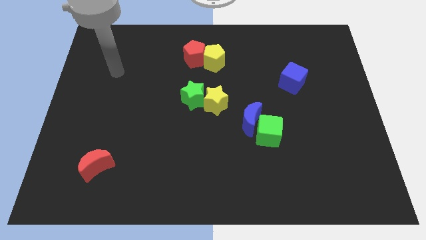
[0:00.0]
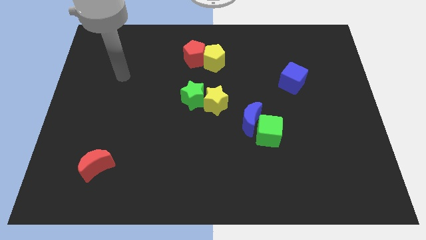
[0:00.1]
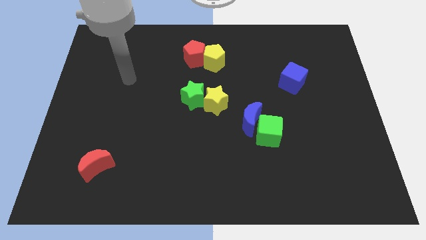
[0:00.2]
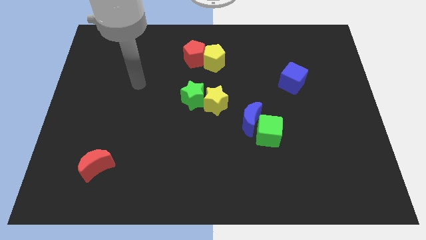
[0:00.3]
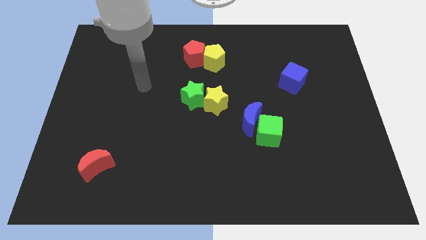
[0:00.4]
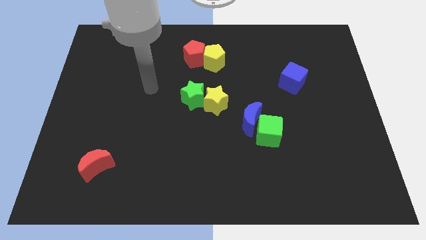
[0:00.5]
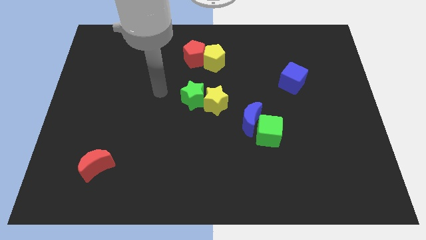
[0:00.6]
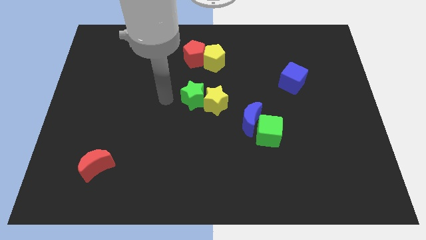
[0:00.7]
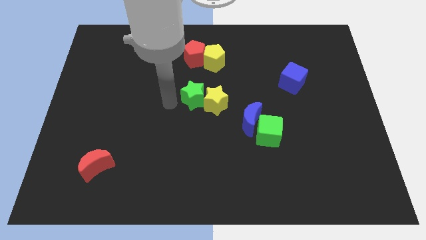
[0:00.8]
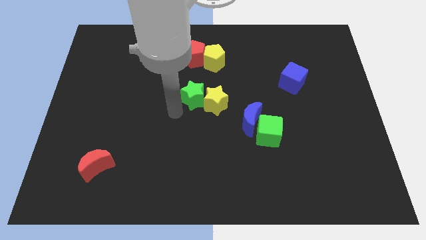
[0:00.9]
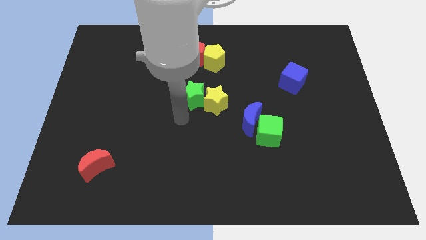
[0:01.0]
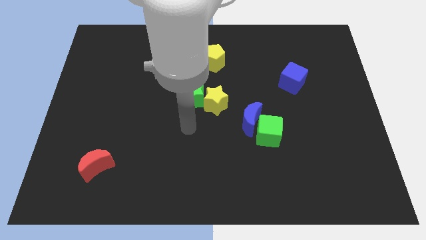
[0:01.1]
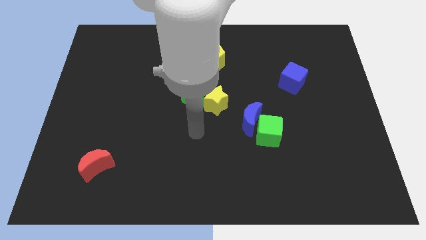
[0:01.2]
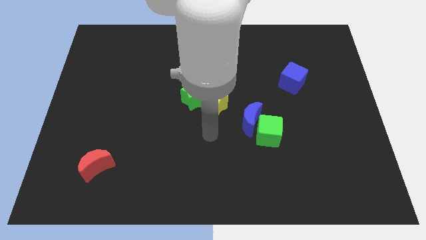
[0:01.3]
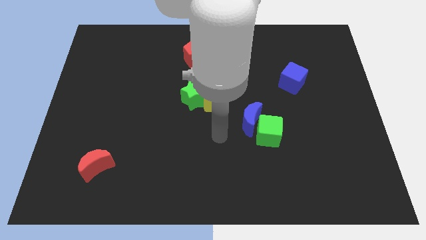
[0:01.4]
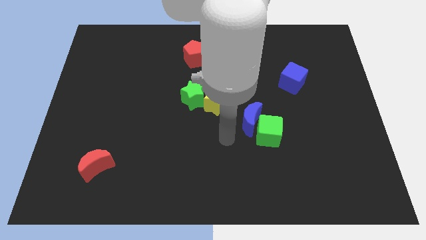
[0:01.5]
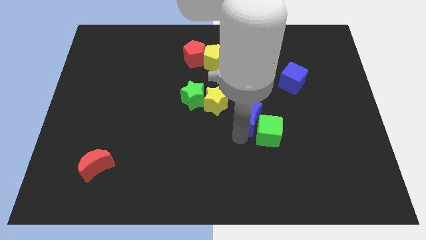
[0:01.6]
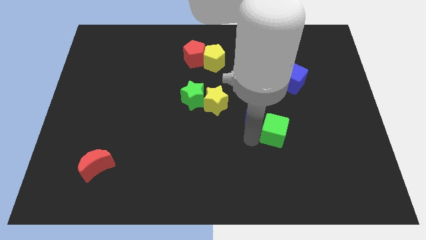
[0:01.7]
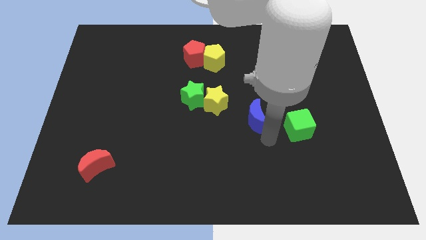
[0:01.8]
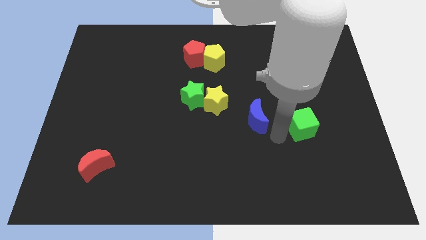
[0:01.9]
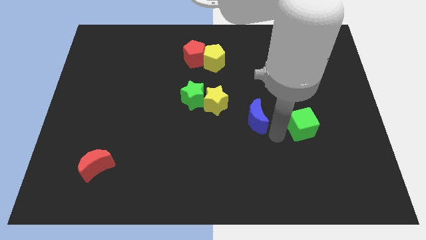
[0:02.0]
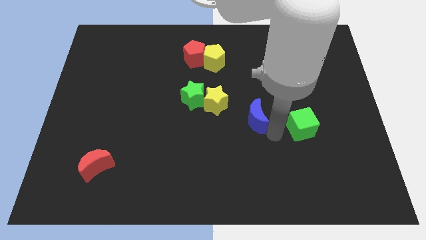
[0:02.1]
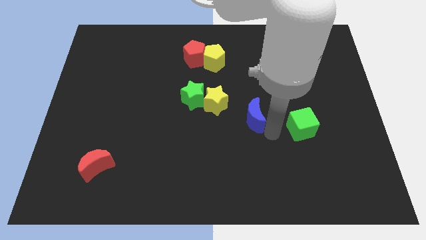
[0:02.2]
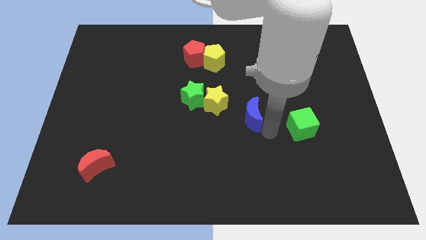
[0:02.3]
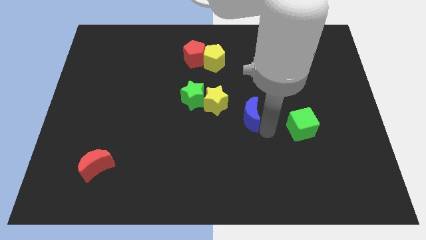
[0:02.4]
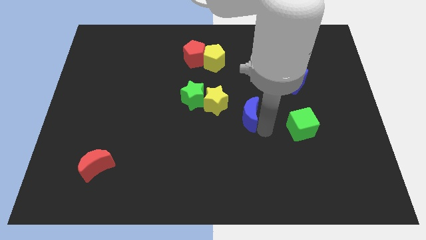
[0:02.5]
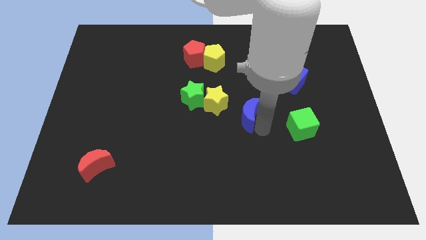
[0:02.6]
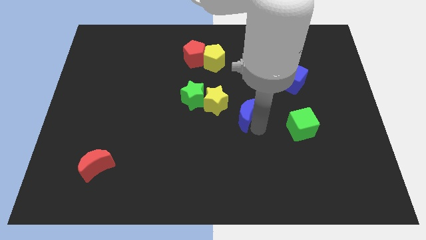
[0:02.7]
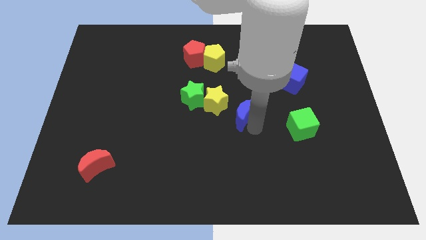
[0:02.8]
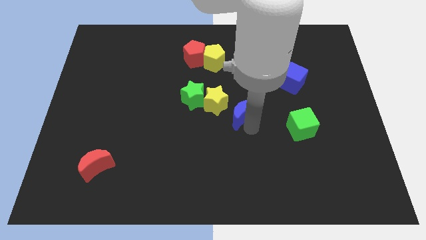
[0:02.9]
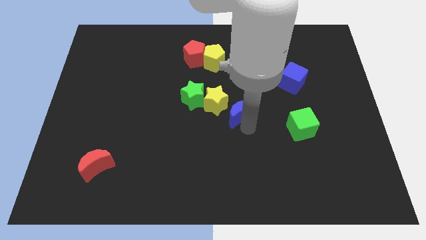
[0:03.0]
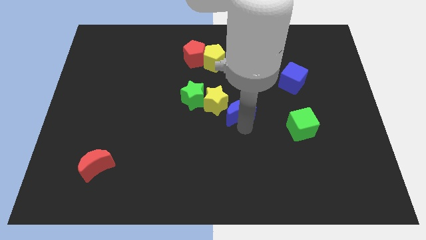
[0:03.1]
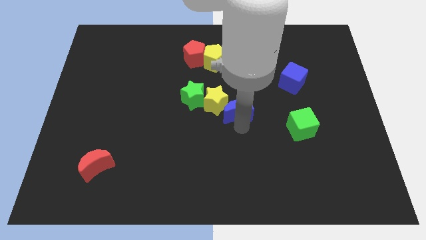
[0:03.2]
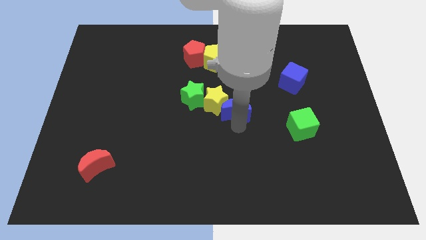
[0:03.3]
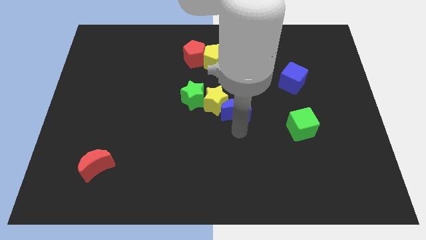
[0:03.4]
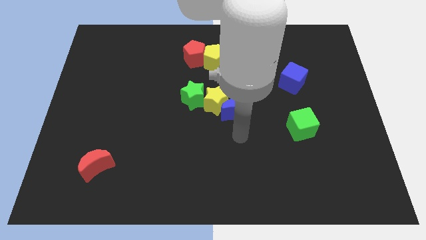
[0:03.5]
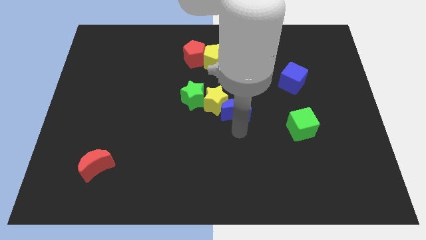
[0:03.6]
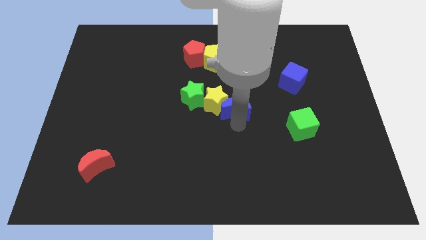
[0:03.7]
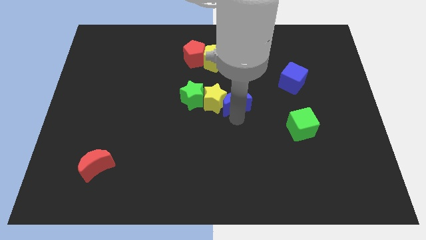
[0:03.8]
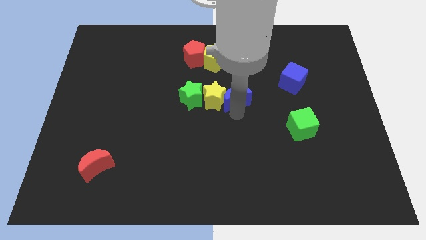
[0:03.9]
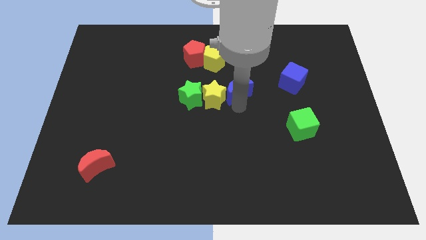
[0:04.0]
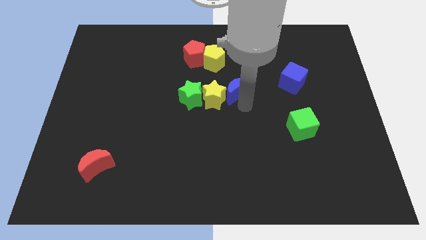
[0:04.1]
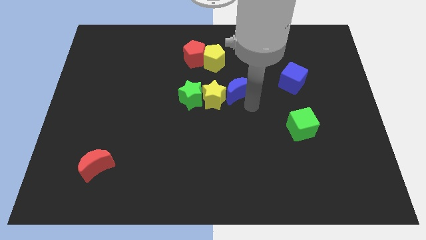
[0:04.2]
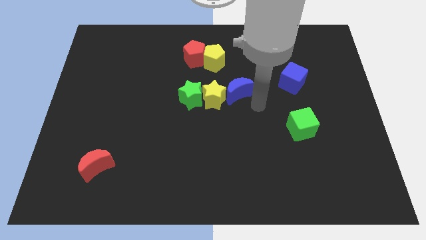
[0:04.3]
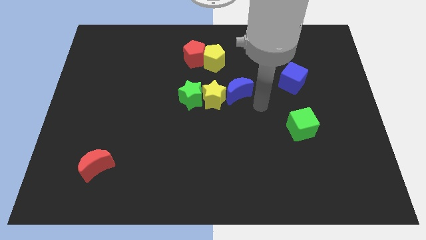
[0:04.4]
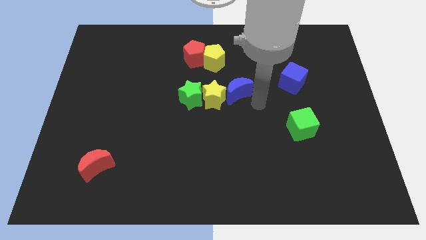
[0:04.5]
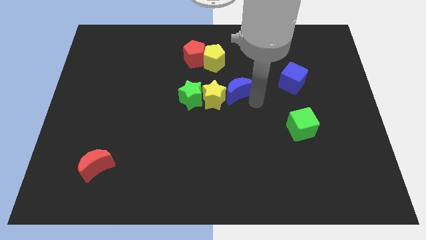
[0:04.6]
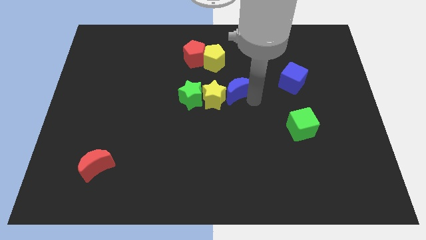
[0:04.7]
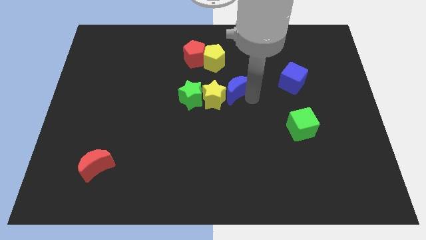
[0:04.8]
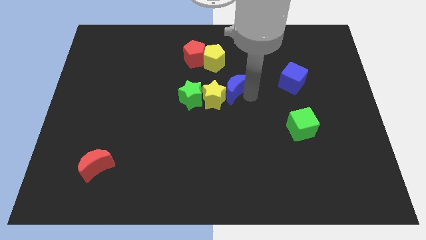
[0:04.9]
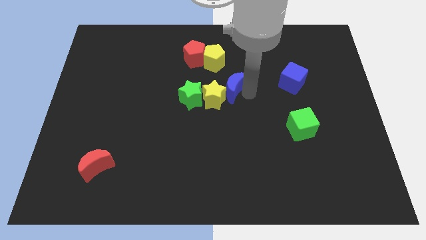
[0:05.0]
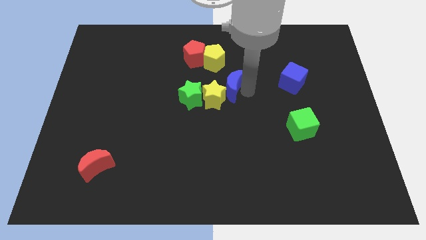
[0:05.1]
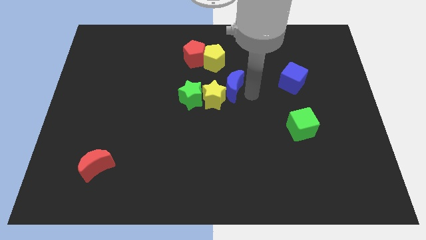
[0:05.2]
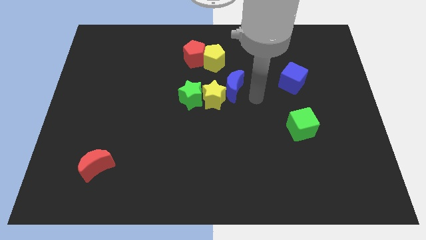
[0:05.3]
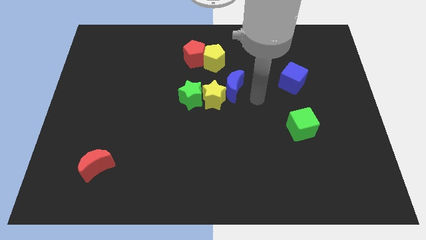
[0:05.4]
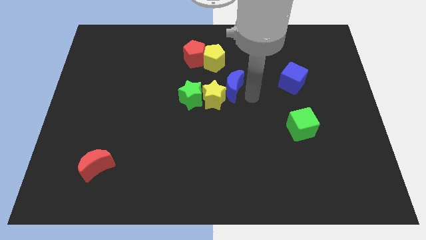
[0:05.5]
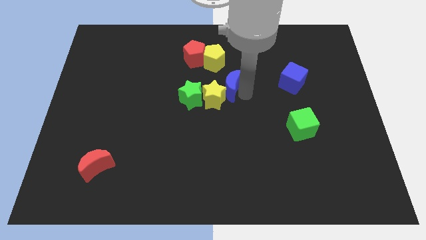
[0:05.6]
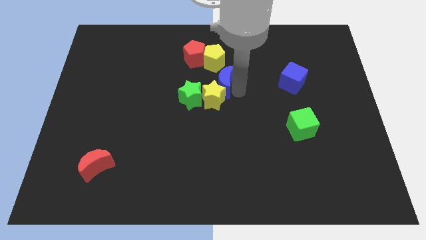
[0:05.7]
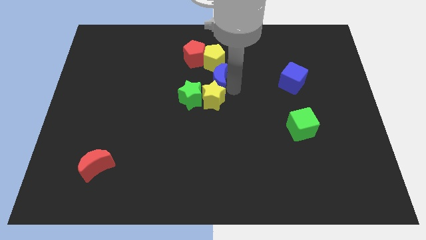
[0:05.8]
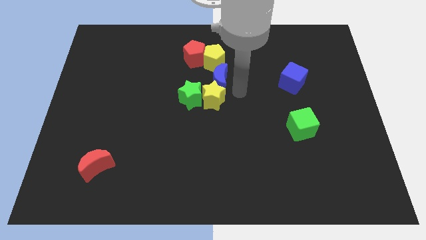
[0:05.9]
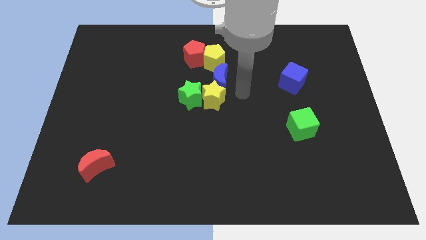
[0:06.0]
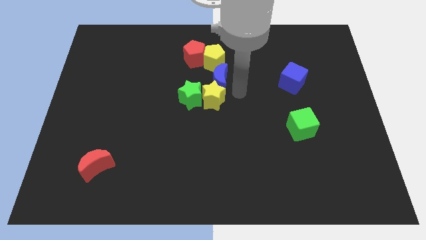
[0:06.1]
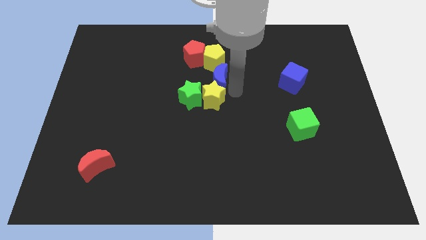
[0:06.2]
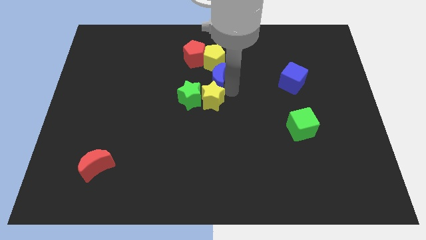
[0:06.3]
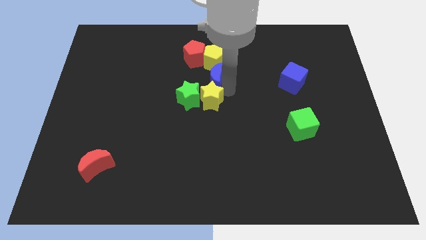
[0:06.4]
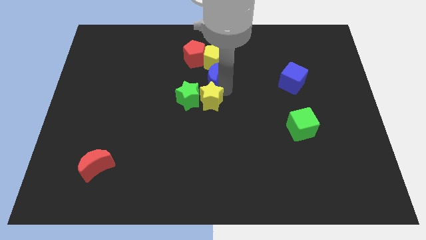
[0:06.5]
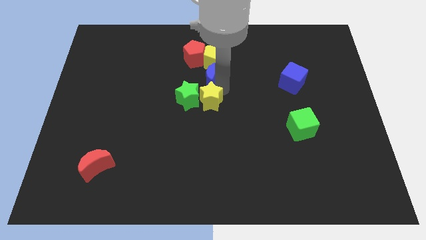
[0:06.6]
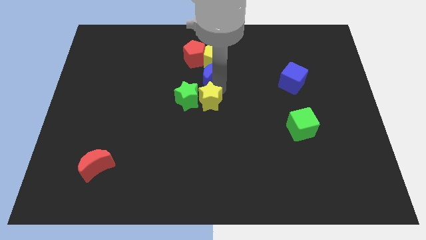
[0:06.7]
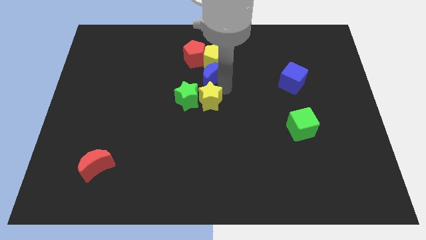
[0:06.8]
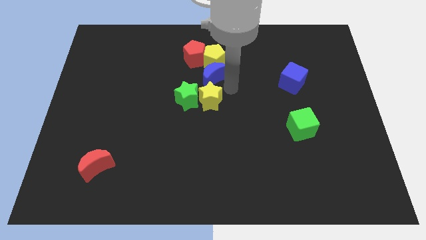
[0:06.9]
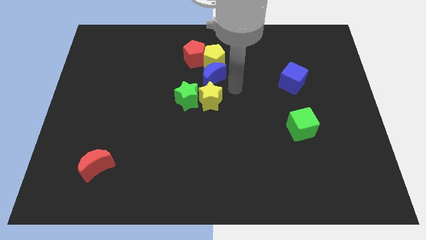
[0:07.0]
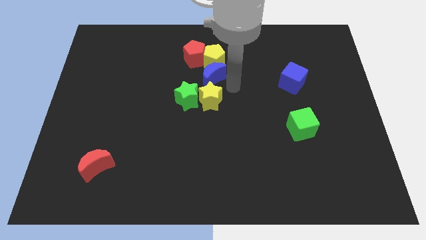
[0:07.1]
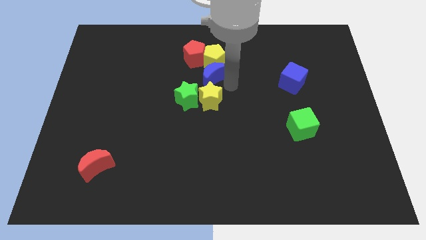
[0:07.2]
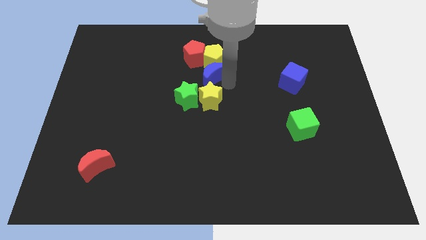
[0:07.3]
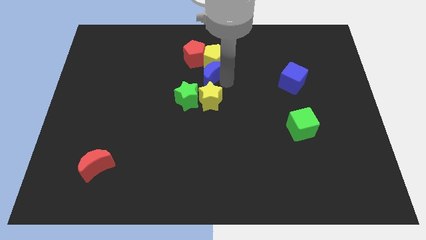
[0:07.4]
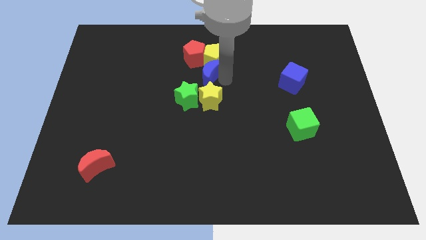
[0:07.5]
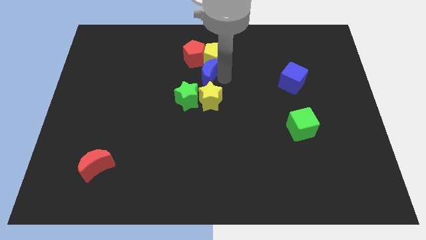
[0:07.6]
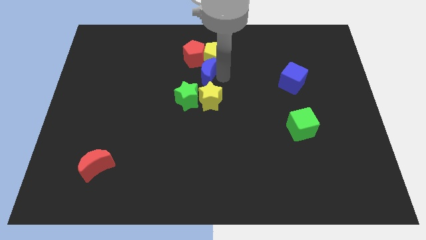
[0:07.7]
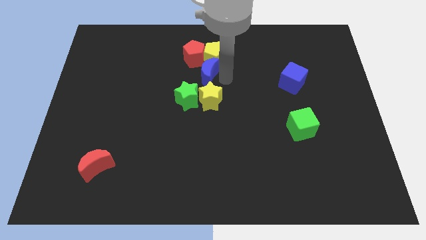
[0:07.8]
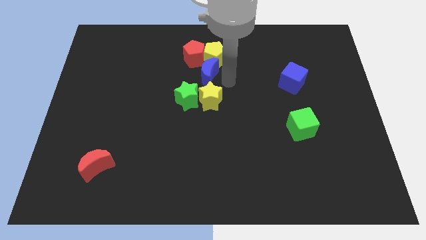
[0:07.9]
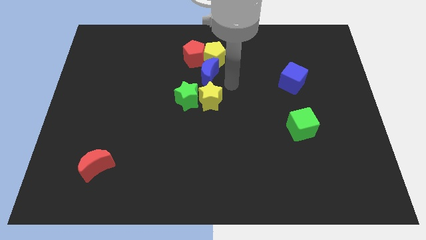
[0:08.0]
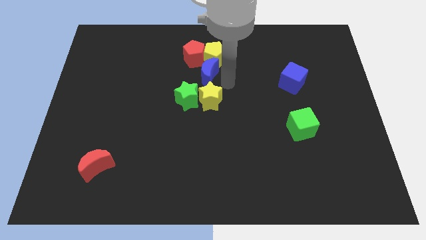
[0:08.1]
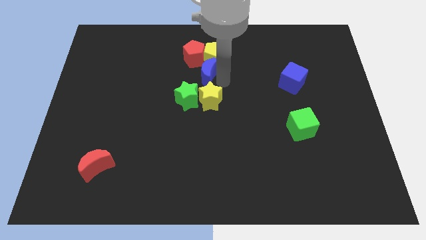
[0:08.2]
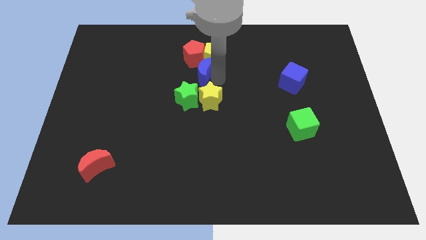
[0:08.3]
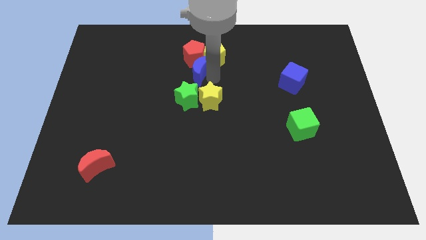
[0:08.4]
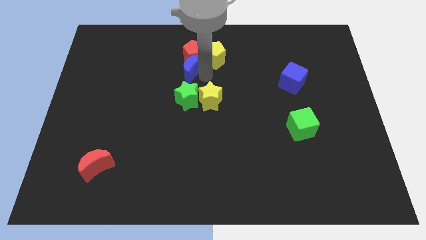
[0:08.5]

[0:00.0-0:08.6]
move the blue moon to the left side of the yellow pentagon
